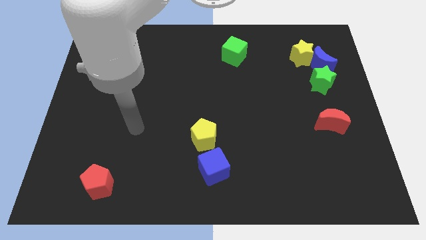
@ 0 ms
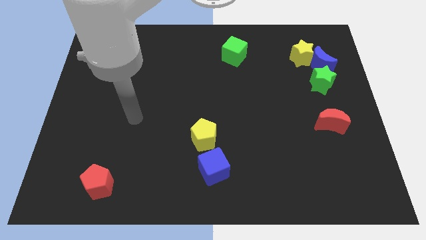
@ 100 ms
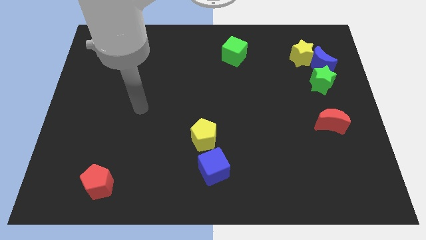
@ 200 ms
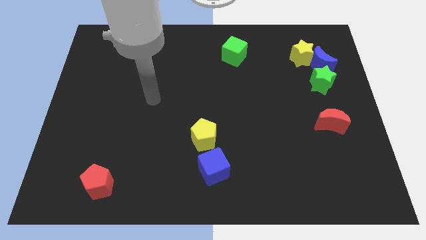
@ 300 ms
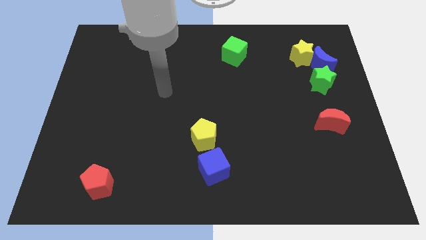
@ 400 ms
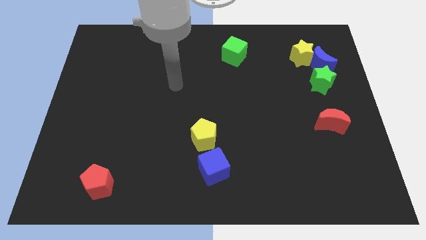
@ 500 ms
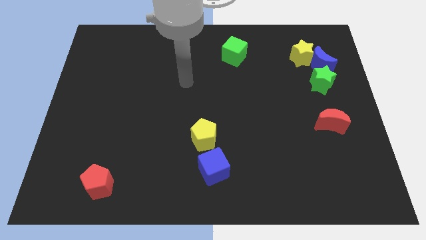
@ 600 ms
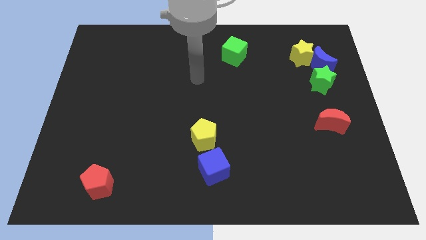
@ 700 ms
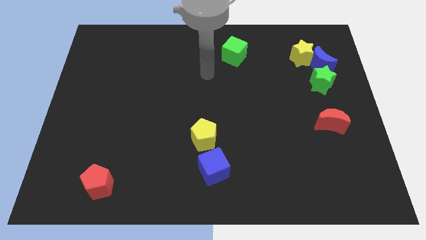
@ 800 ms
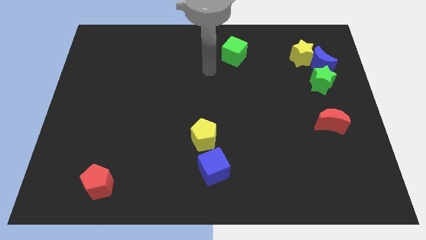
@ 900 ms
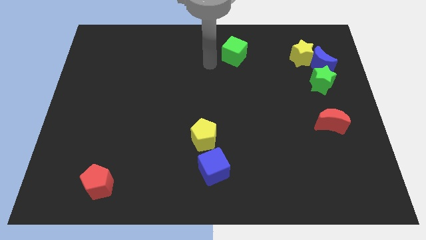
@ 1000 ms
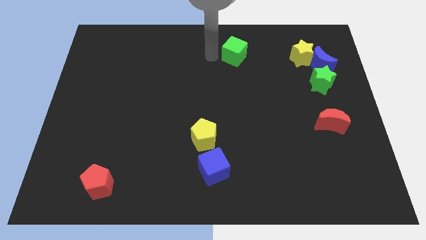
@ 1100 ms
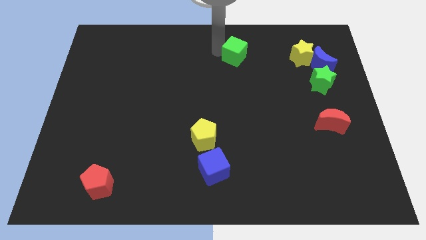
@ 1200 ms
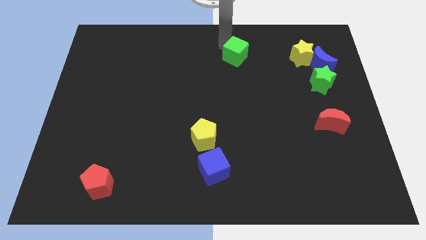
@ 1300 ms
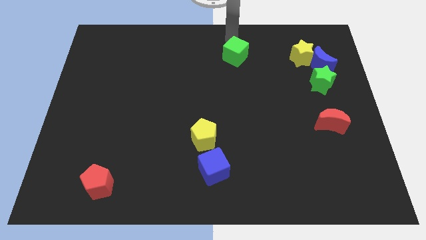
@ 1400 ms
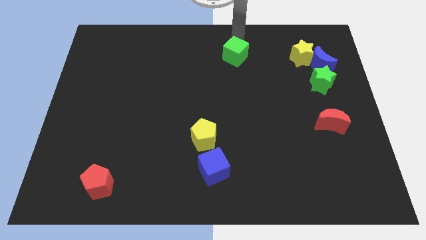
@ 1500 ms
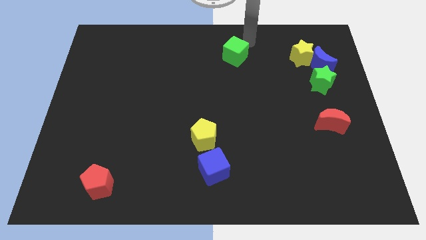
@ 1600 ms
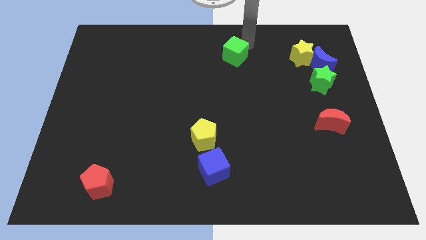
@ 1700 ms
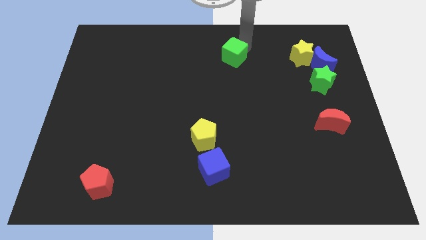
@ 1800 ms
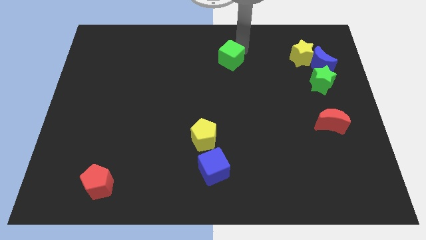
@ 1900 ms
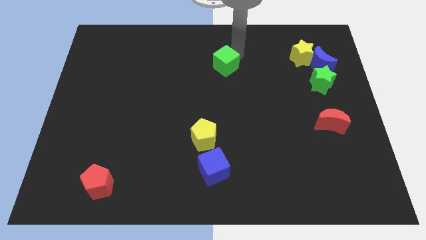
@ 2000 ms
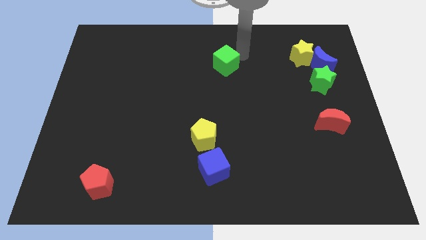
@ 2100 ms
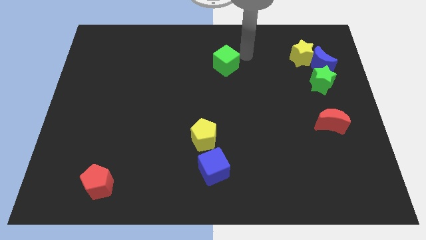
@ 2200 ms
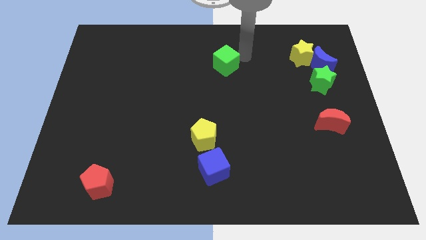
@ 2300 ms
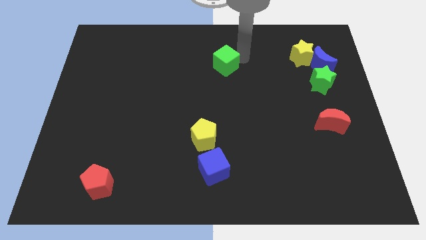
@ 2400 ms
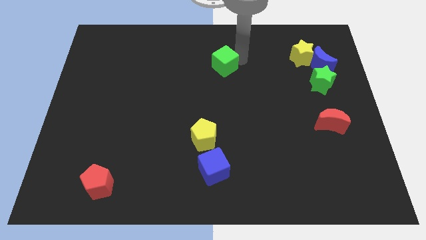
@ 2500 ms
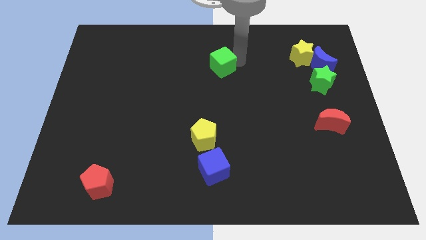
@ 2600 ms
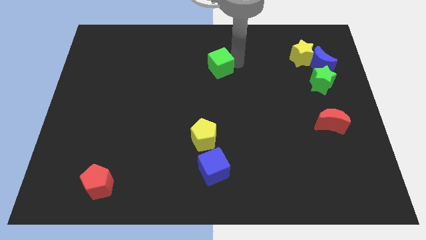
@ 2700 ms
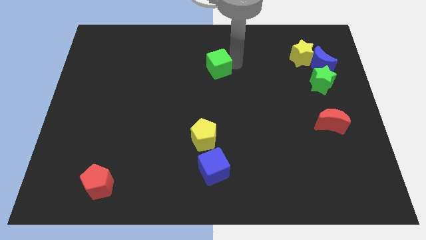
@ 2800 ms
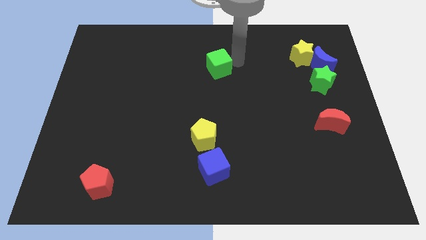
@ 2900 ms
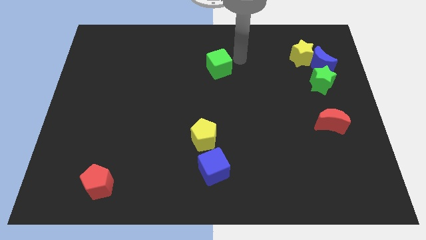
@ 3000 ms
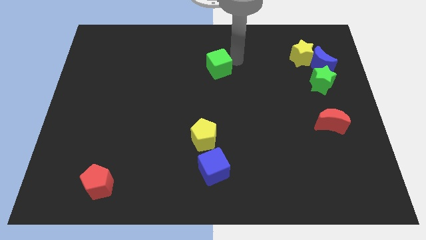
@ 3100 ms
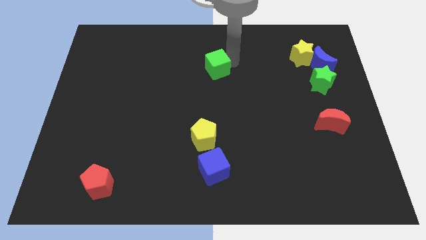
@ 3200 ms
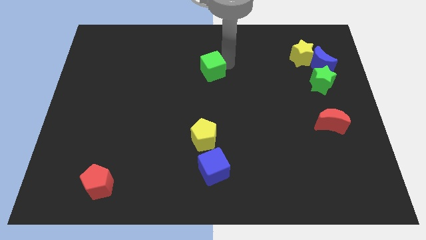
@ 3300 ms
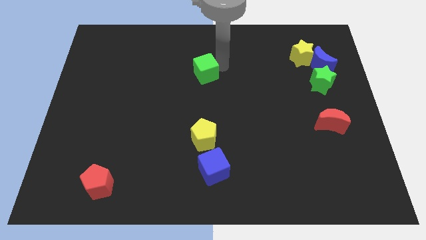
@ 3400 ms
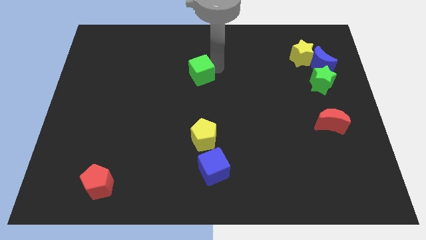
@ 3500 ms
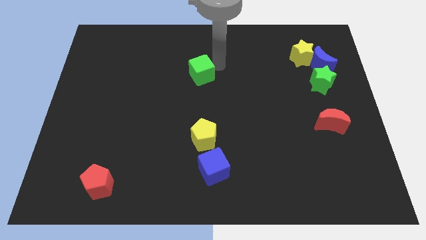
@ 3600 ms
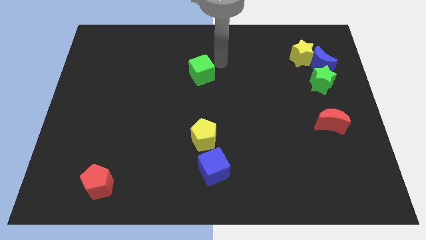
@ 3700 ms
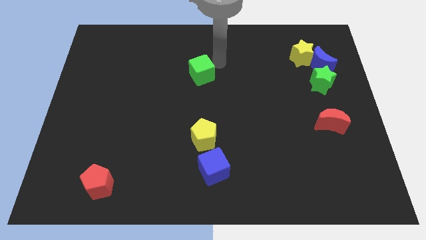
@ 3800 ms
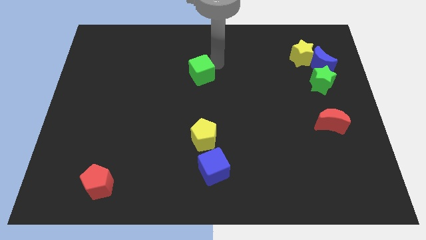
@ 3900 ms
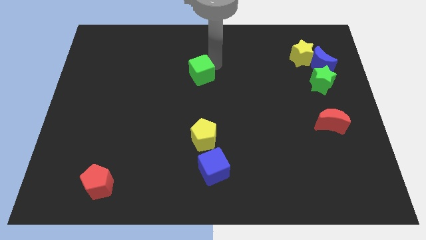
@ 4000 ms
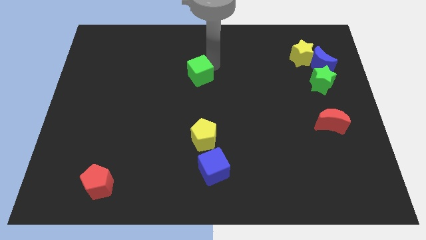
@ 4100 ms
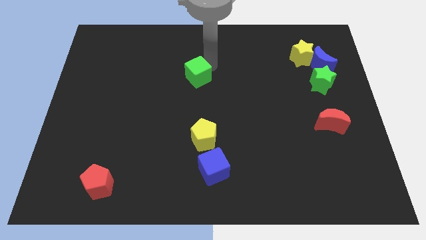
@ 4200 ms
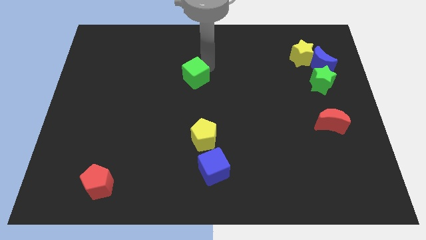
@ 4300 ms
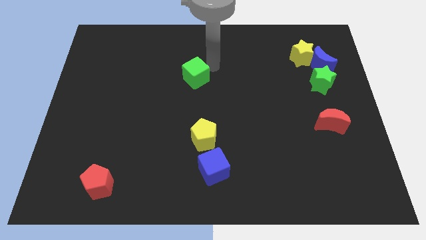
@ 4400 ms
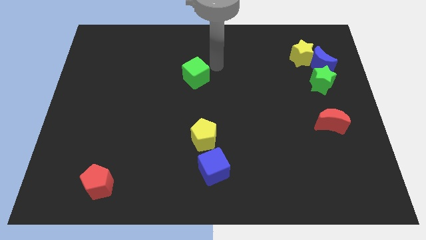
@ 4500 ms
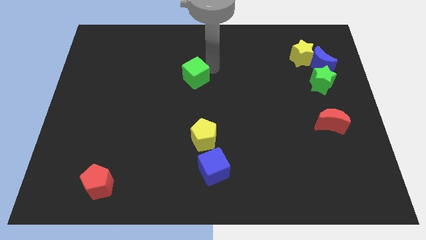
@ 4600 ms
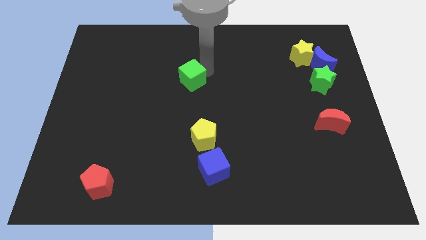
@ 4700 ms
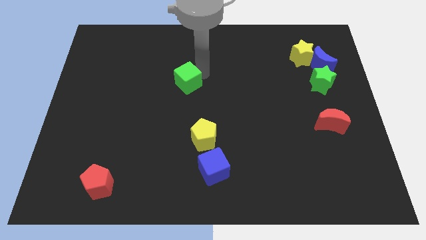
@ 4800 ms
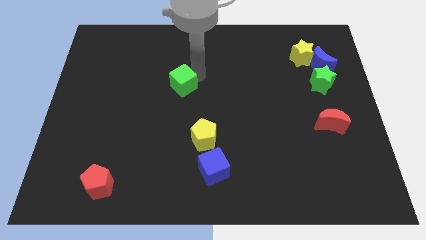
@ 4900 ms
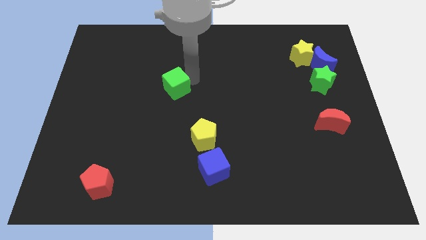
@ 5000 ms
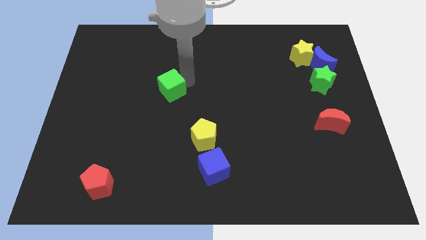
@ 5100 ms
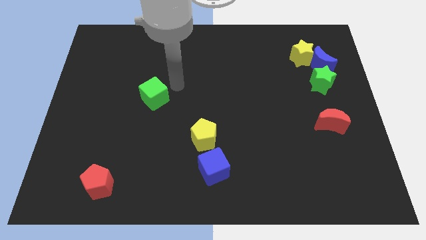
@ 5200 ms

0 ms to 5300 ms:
push the green cube downwards and to the left diagonally

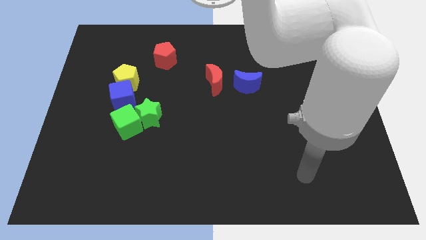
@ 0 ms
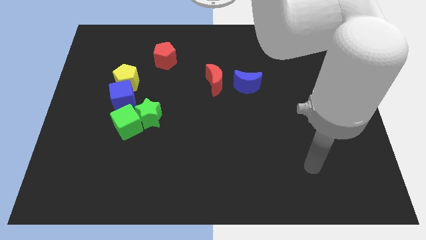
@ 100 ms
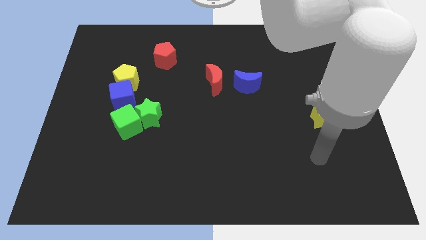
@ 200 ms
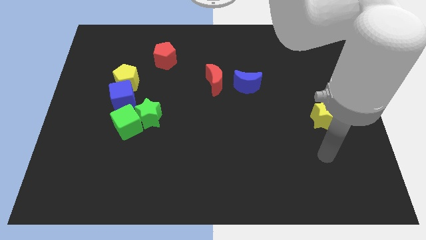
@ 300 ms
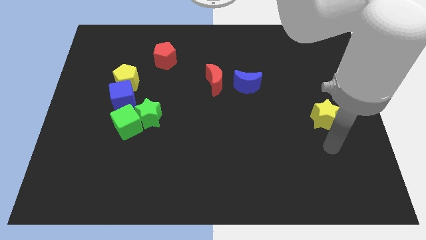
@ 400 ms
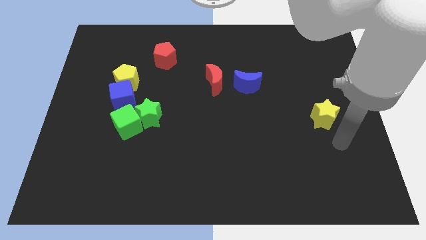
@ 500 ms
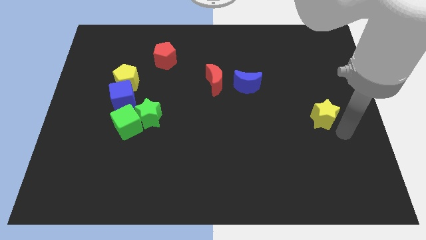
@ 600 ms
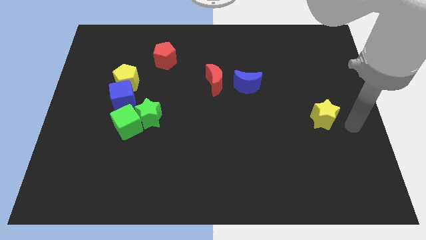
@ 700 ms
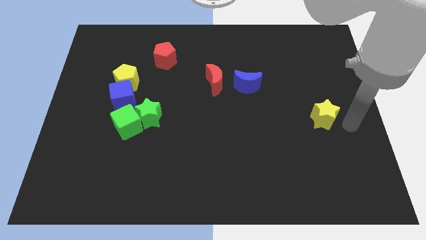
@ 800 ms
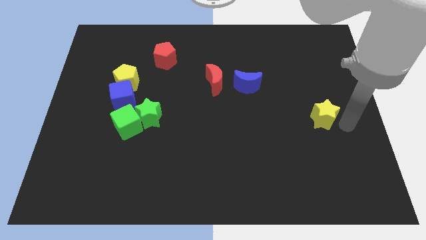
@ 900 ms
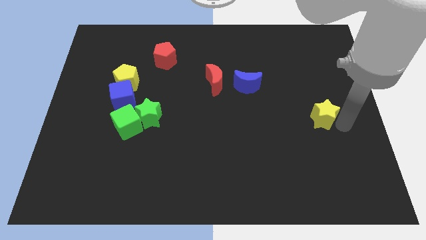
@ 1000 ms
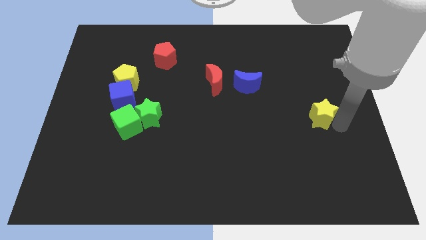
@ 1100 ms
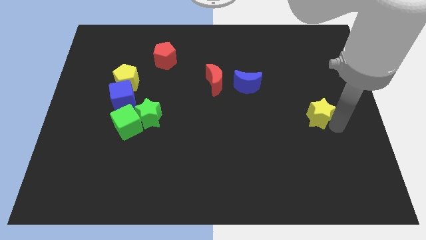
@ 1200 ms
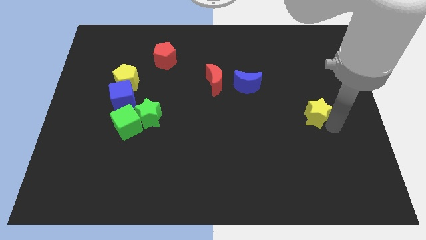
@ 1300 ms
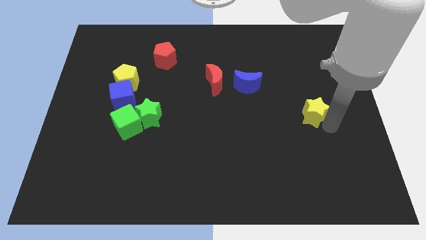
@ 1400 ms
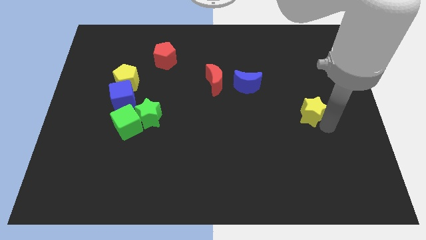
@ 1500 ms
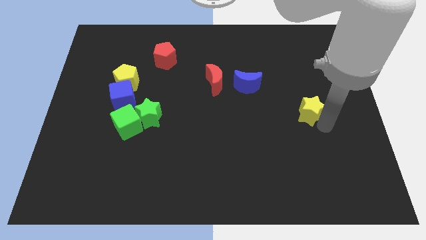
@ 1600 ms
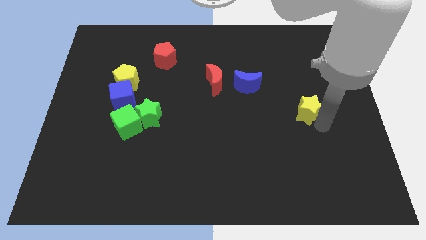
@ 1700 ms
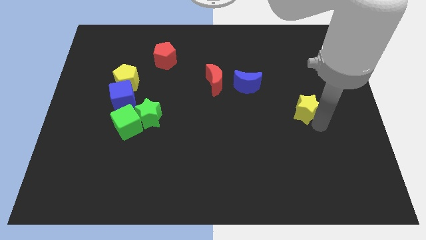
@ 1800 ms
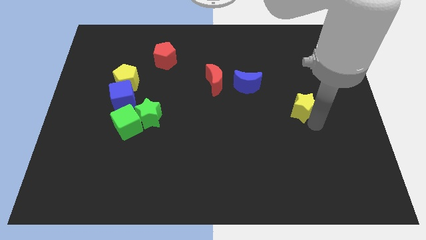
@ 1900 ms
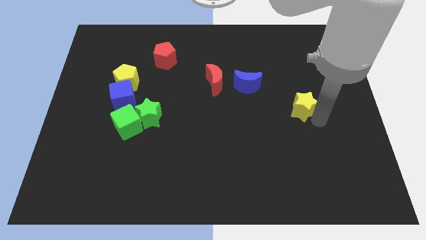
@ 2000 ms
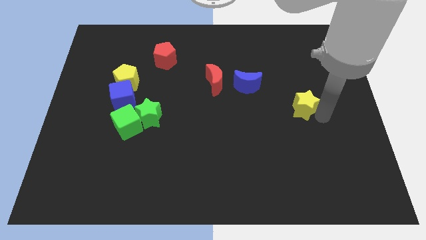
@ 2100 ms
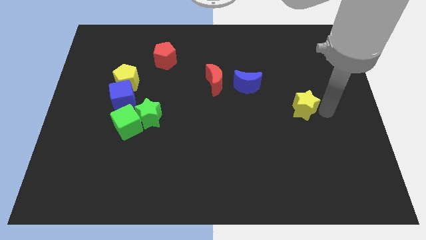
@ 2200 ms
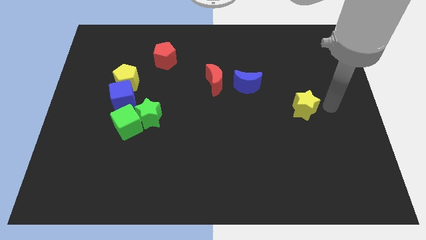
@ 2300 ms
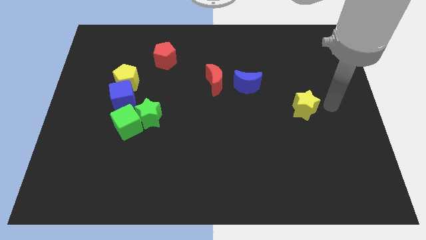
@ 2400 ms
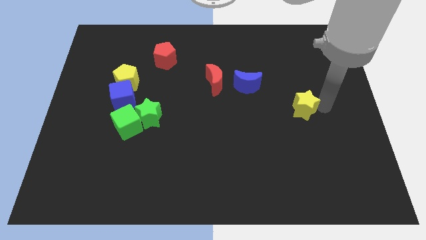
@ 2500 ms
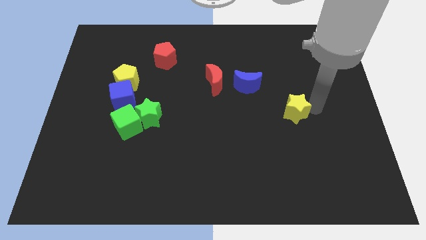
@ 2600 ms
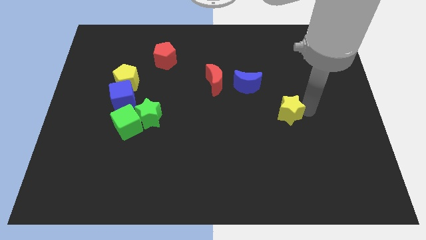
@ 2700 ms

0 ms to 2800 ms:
slide the yellow star to the left a bit
